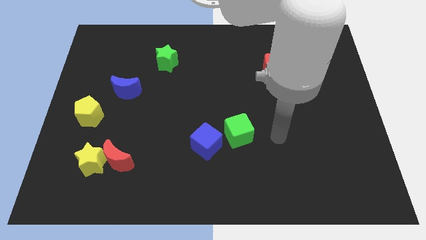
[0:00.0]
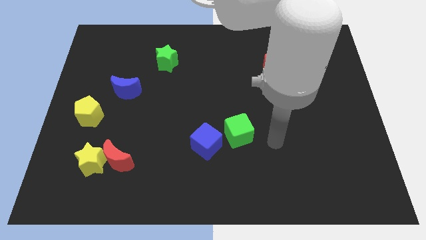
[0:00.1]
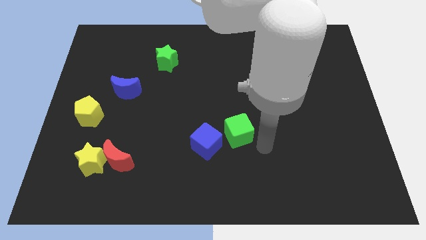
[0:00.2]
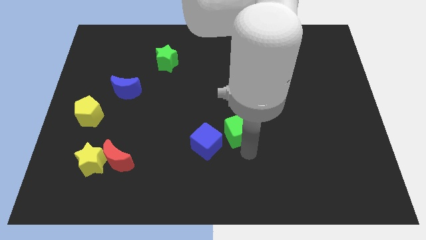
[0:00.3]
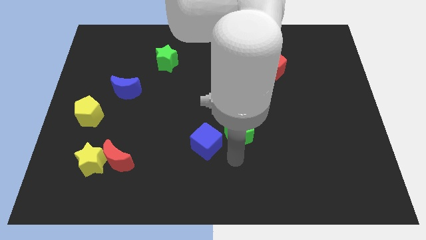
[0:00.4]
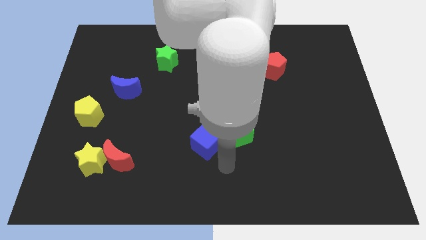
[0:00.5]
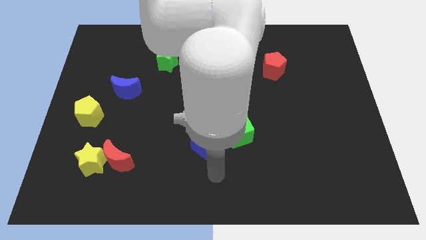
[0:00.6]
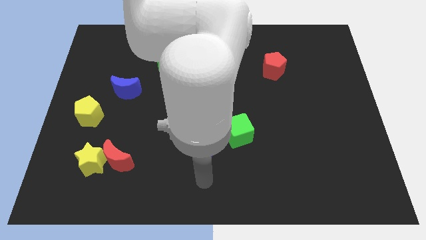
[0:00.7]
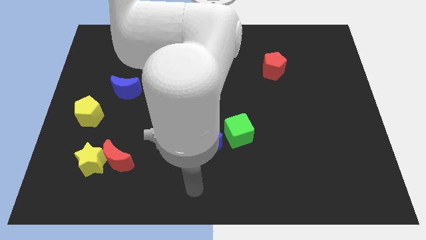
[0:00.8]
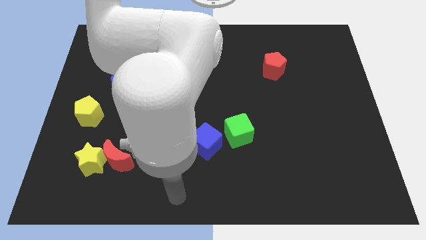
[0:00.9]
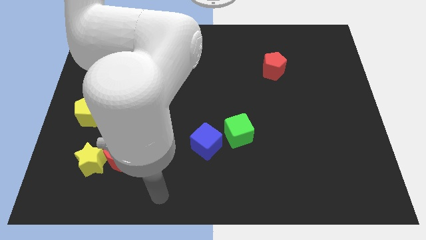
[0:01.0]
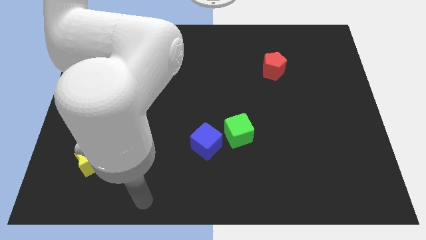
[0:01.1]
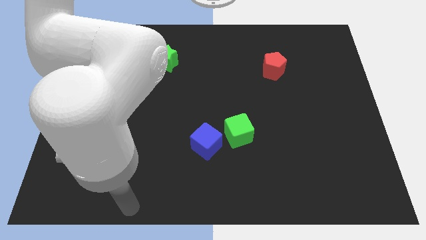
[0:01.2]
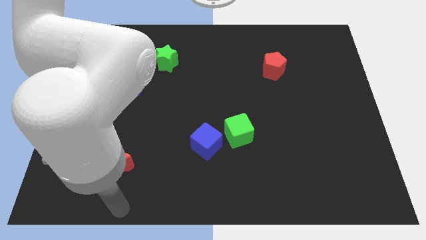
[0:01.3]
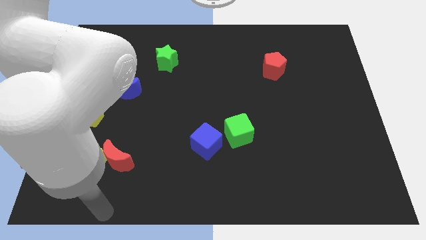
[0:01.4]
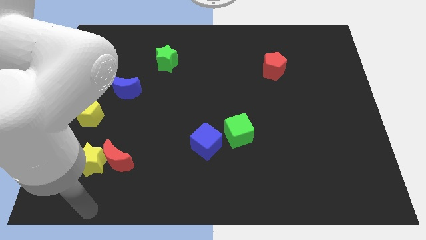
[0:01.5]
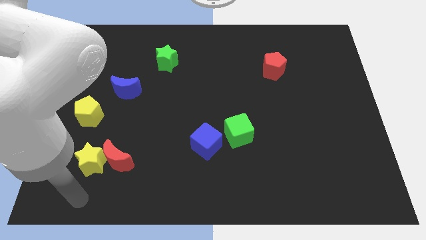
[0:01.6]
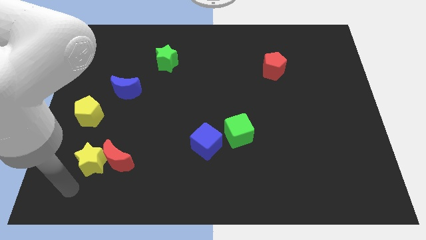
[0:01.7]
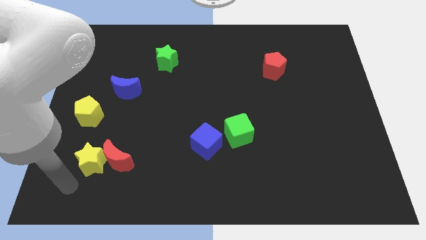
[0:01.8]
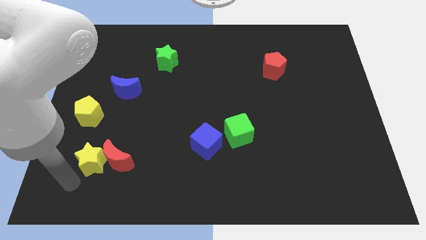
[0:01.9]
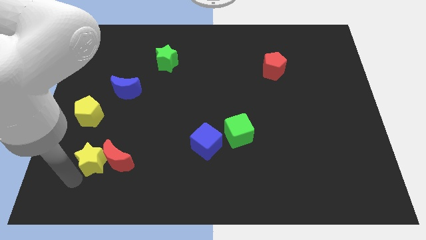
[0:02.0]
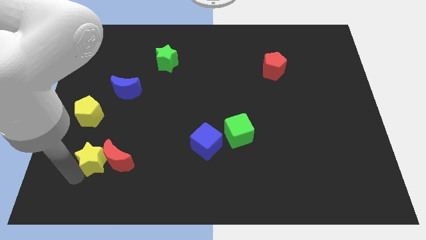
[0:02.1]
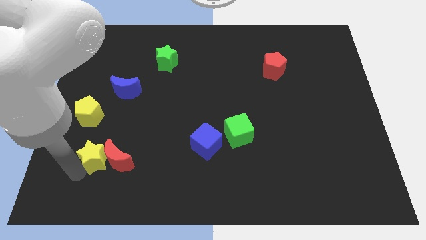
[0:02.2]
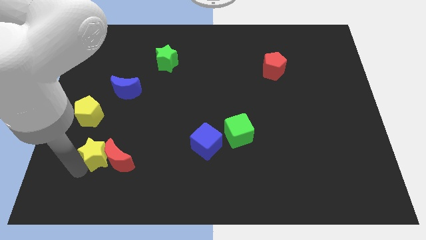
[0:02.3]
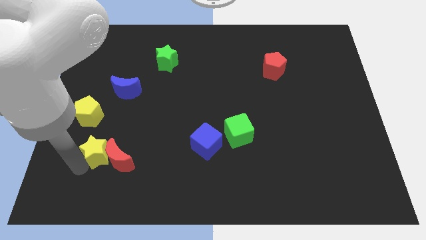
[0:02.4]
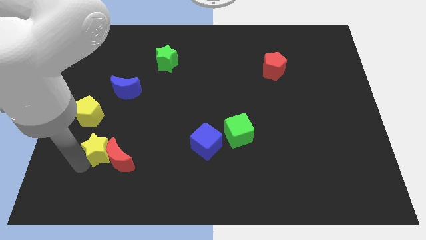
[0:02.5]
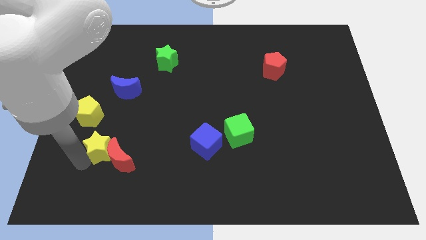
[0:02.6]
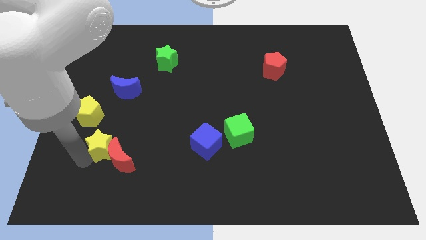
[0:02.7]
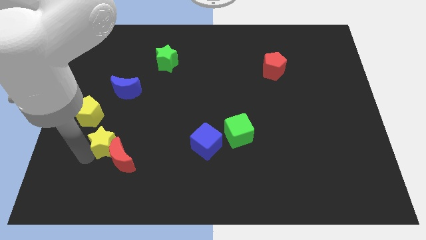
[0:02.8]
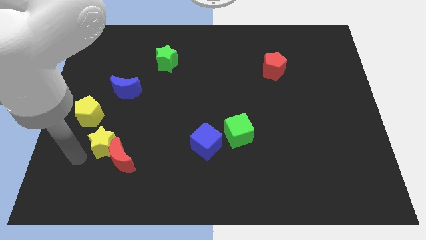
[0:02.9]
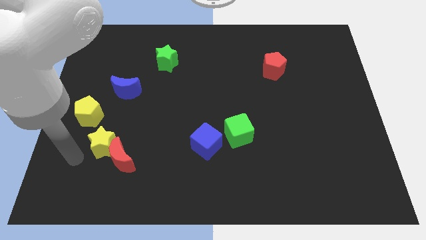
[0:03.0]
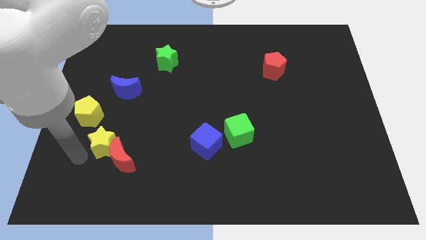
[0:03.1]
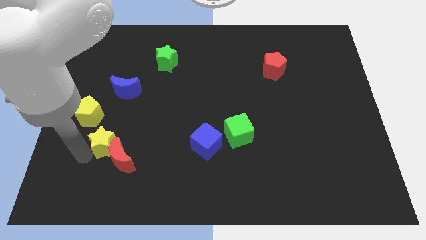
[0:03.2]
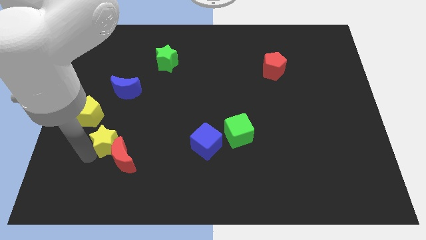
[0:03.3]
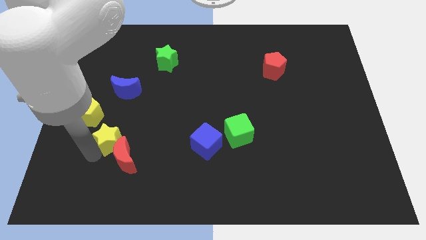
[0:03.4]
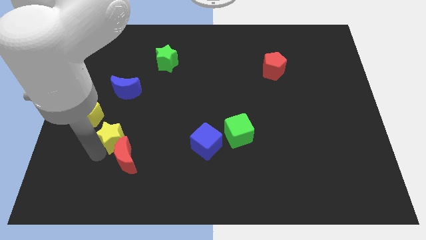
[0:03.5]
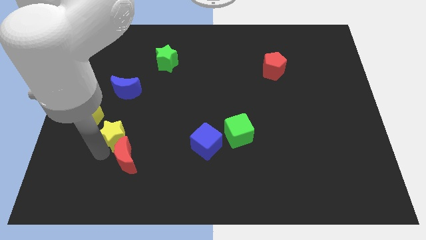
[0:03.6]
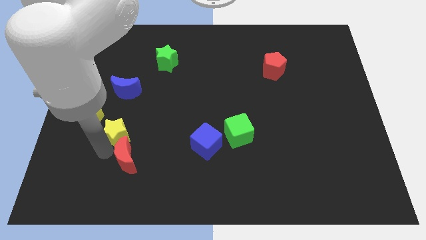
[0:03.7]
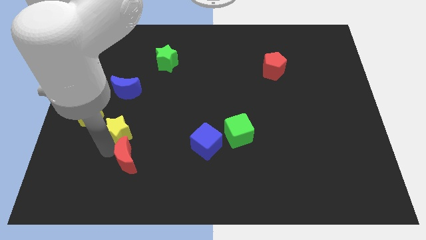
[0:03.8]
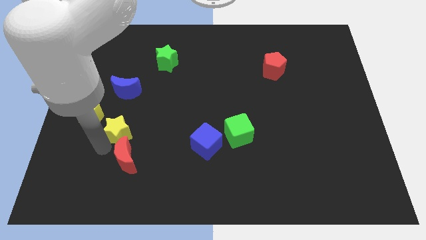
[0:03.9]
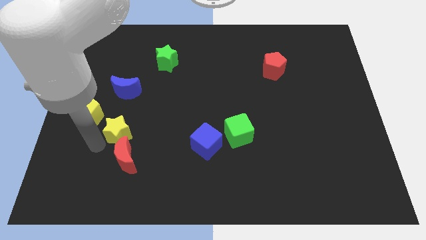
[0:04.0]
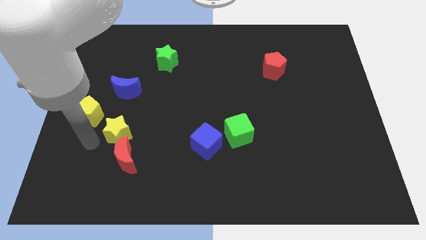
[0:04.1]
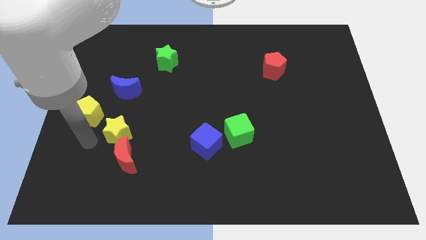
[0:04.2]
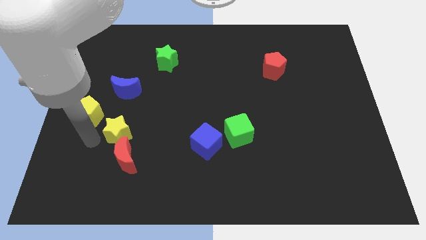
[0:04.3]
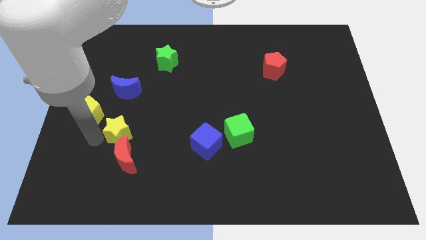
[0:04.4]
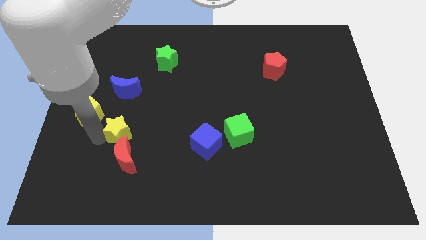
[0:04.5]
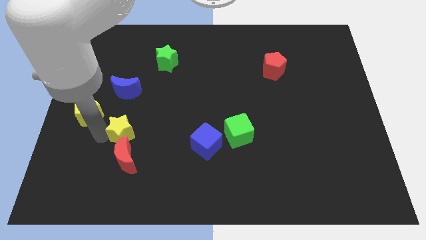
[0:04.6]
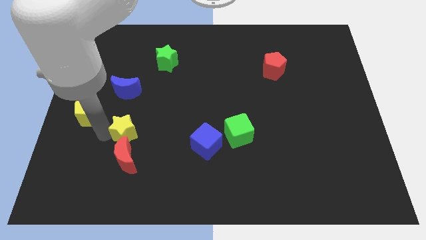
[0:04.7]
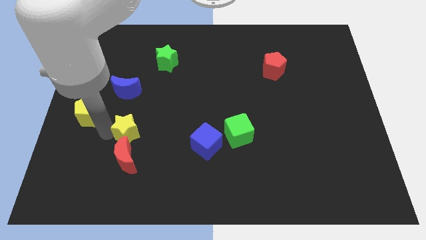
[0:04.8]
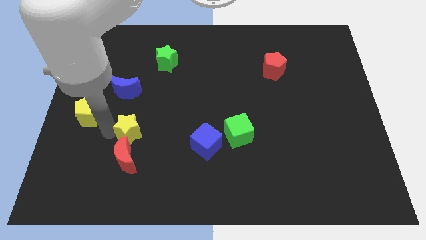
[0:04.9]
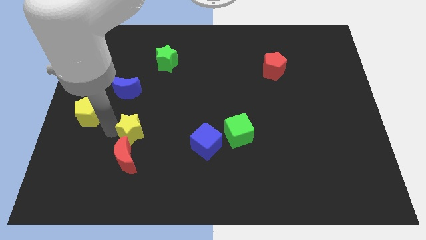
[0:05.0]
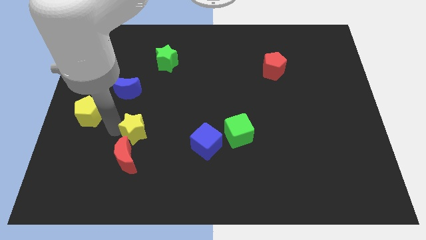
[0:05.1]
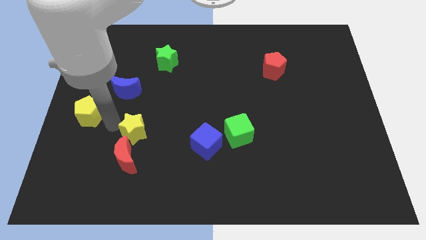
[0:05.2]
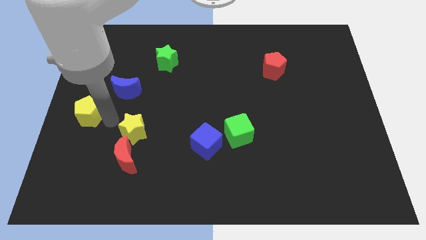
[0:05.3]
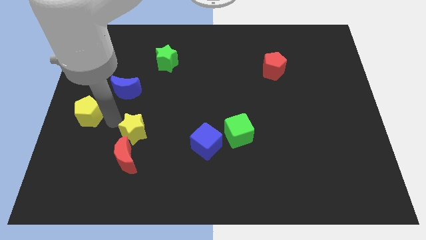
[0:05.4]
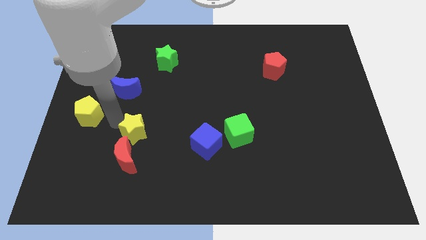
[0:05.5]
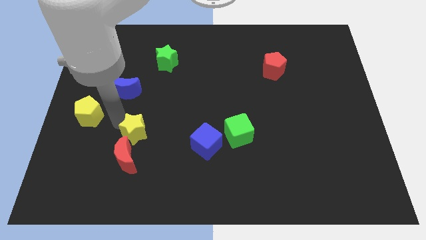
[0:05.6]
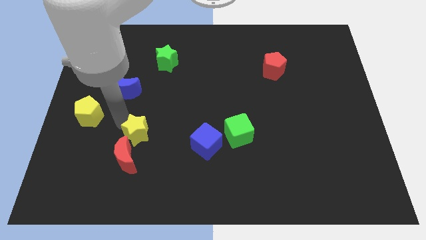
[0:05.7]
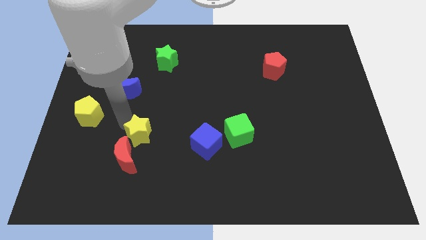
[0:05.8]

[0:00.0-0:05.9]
slide the yellow star to the left of the blue cube
